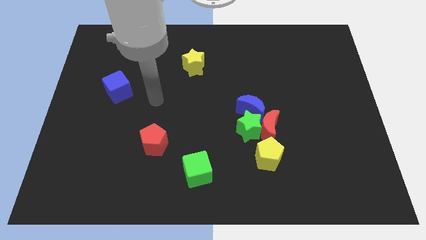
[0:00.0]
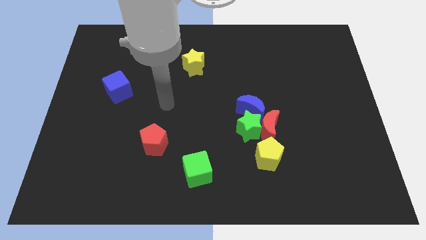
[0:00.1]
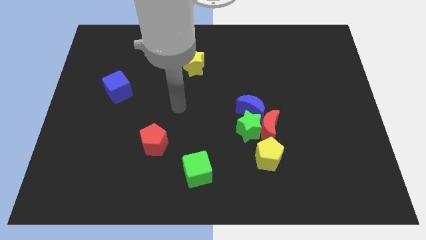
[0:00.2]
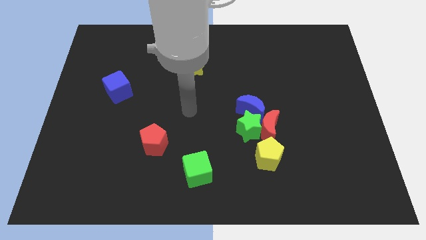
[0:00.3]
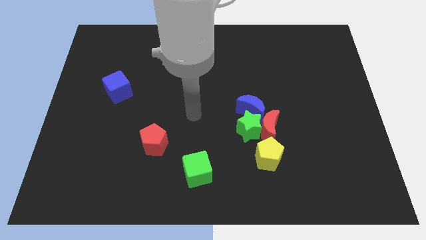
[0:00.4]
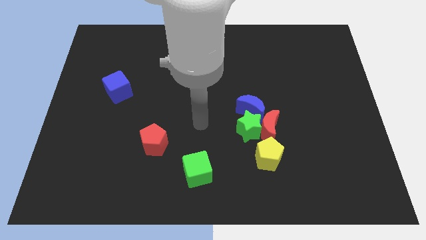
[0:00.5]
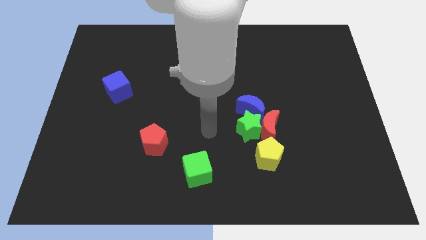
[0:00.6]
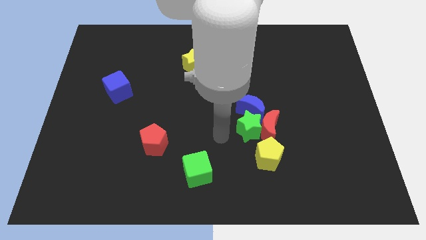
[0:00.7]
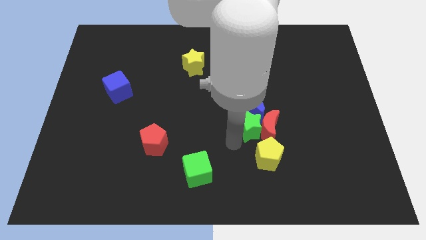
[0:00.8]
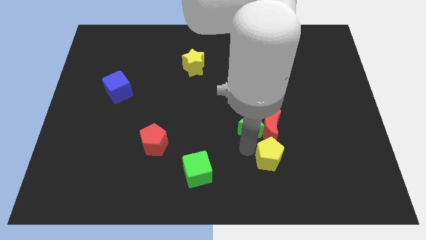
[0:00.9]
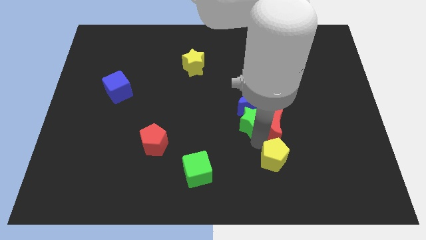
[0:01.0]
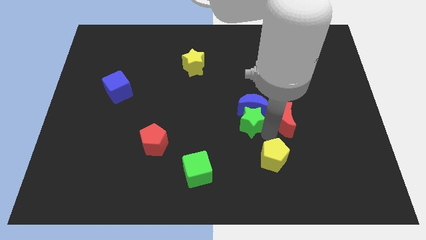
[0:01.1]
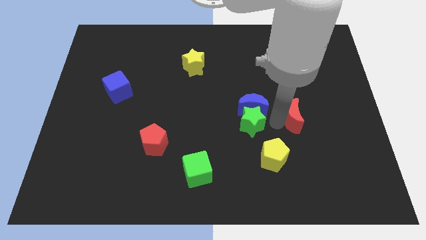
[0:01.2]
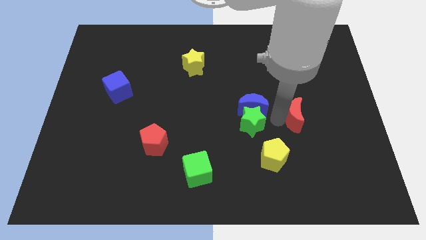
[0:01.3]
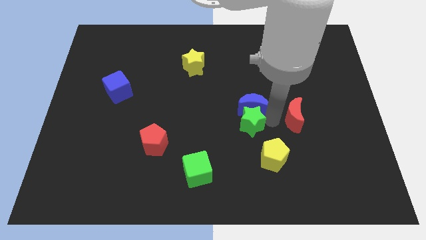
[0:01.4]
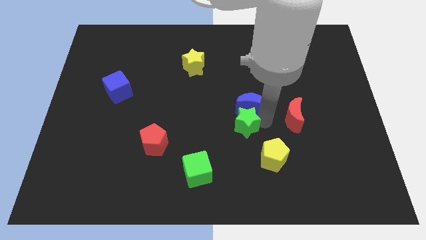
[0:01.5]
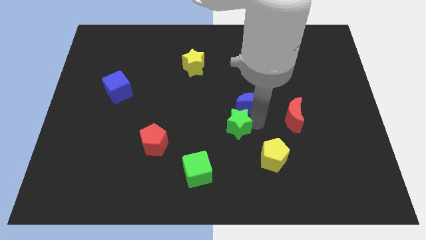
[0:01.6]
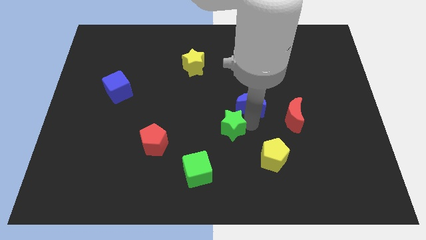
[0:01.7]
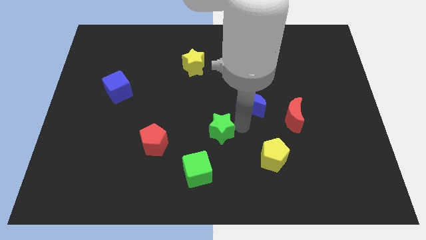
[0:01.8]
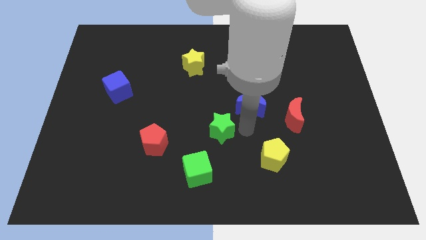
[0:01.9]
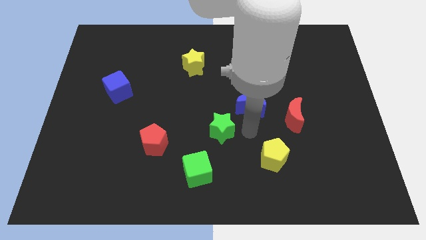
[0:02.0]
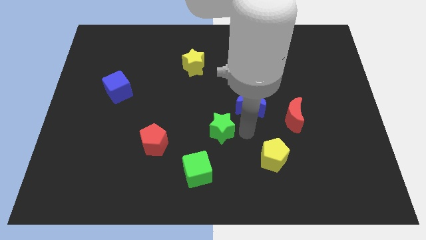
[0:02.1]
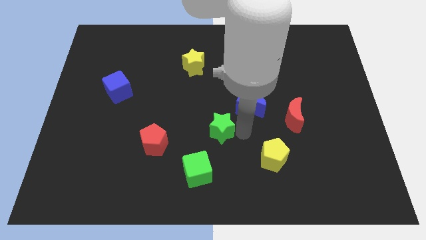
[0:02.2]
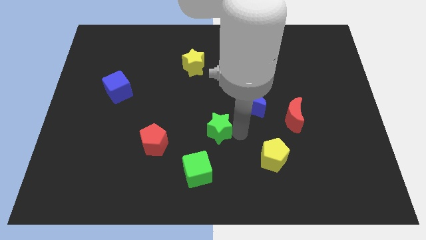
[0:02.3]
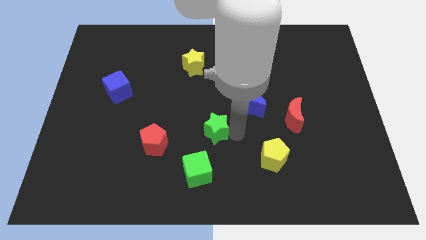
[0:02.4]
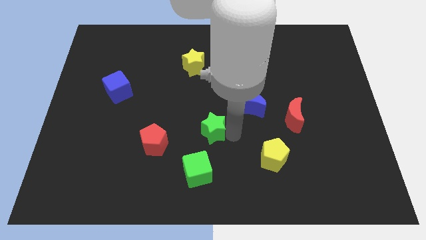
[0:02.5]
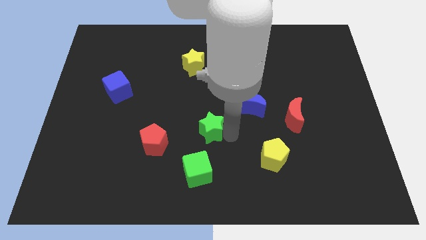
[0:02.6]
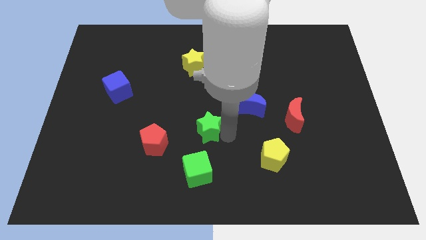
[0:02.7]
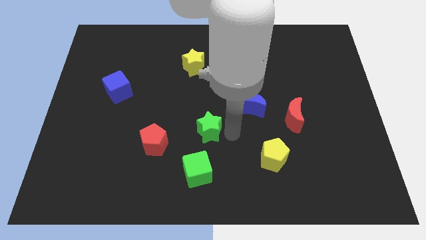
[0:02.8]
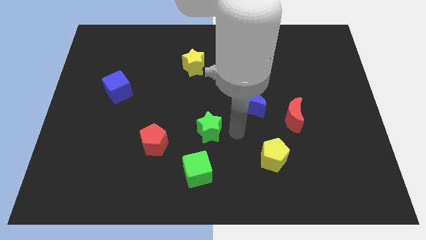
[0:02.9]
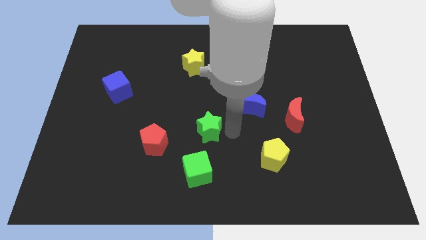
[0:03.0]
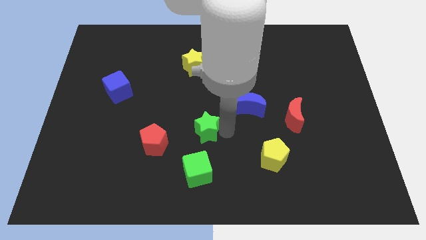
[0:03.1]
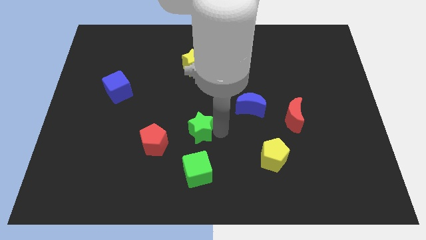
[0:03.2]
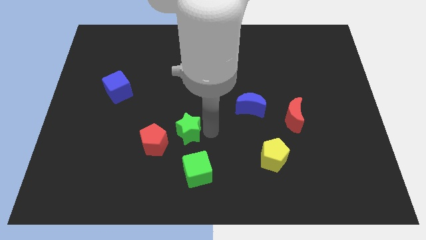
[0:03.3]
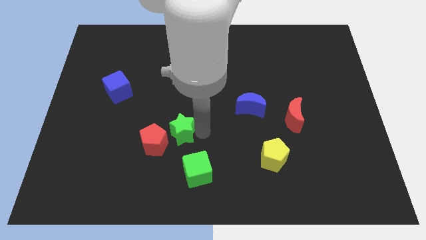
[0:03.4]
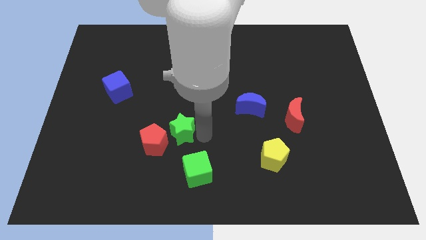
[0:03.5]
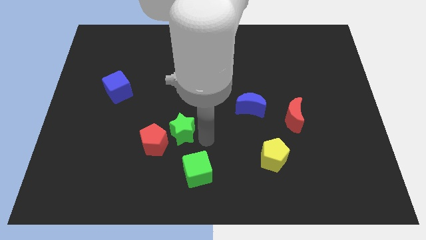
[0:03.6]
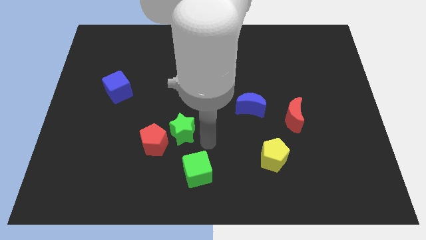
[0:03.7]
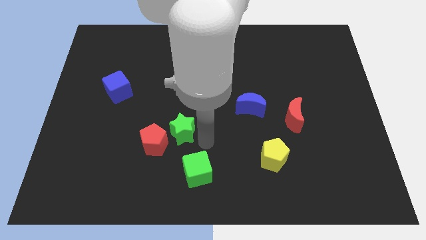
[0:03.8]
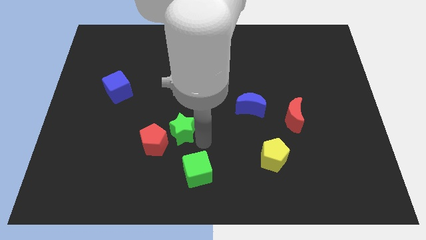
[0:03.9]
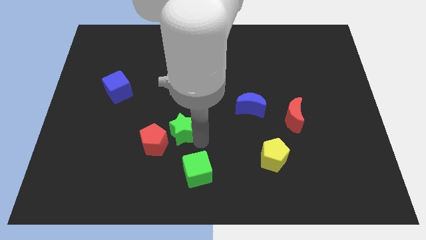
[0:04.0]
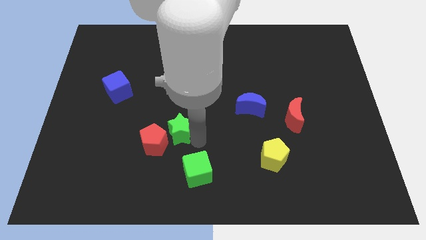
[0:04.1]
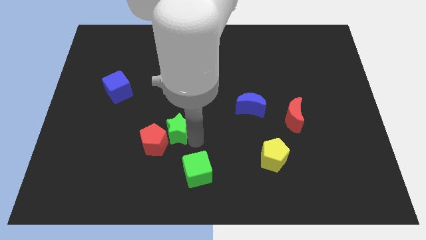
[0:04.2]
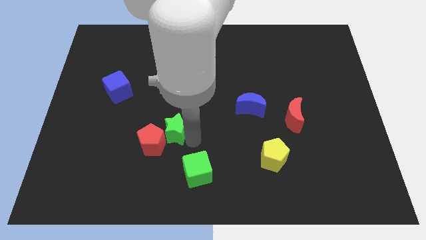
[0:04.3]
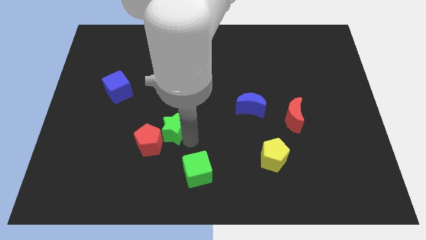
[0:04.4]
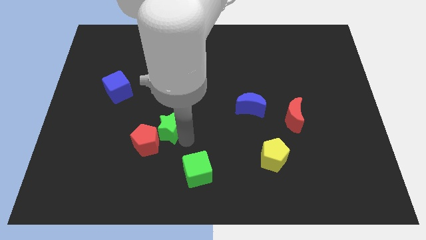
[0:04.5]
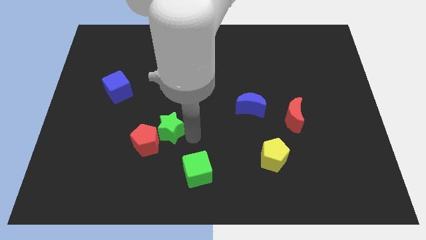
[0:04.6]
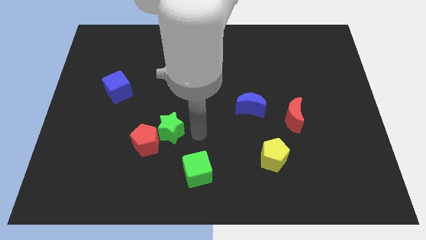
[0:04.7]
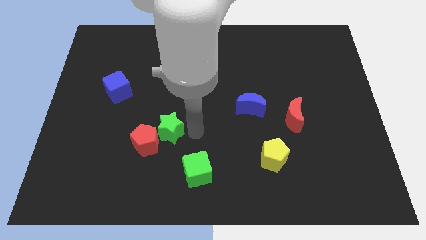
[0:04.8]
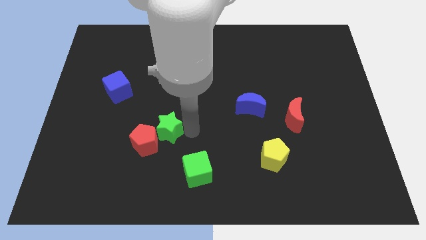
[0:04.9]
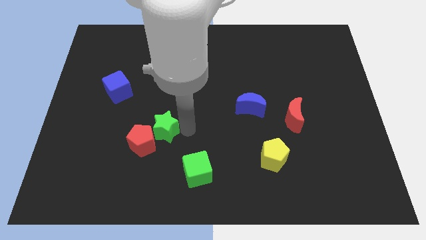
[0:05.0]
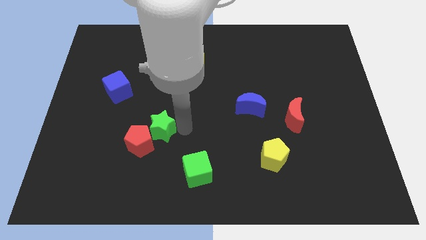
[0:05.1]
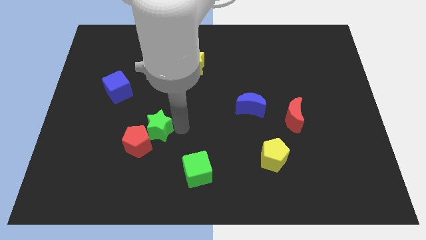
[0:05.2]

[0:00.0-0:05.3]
slide the green star to the left

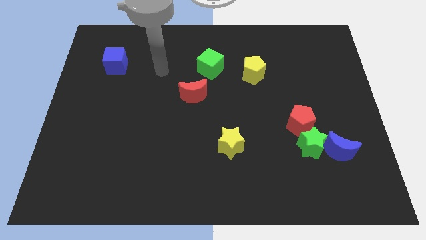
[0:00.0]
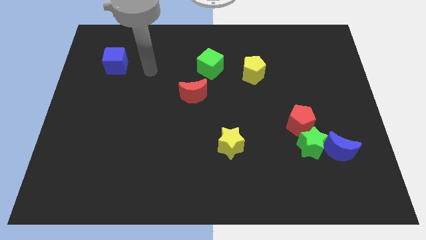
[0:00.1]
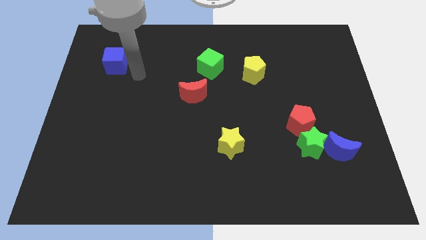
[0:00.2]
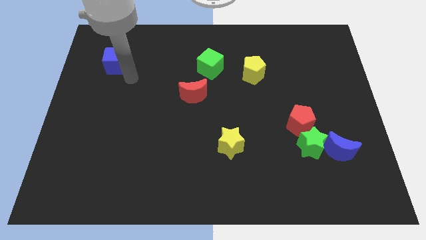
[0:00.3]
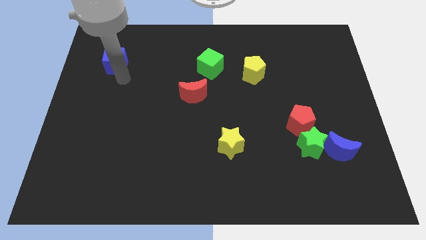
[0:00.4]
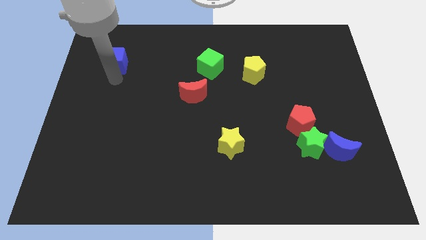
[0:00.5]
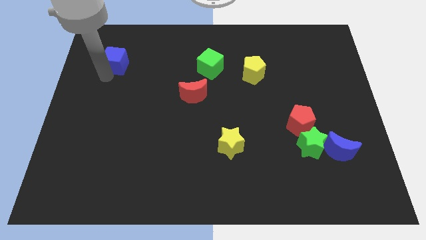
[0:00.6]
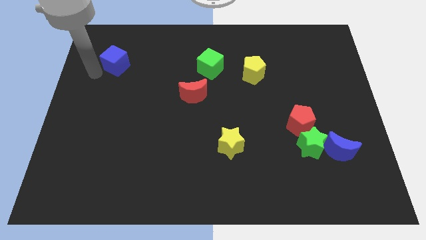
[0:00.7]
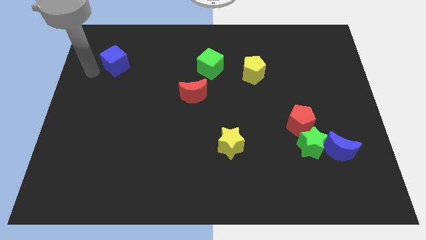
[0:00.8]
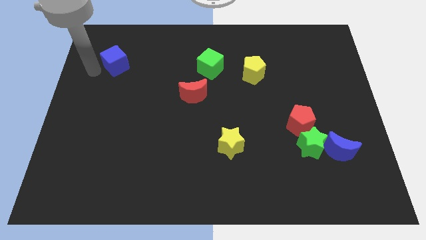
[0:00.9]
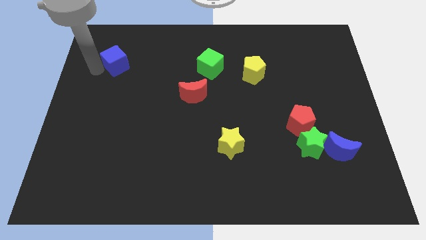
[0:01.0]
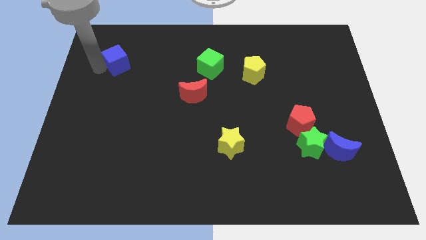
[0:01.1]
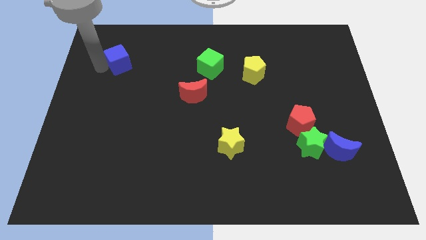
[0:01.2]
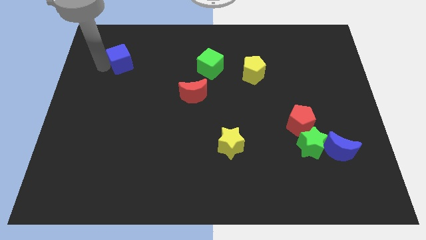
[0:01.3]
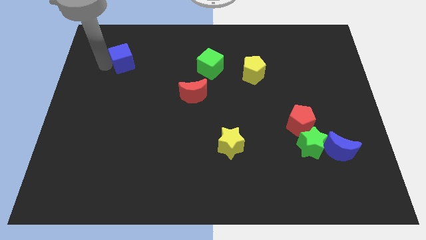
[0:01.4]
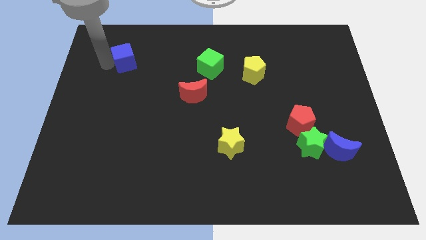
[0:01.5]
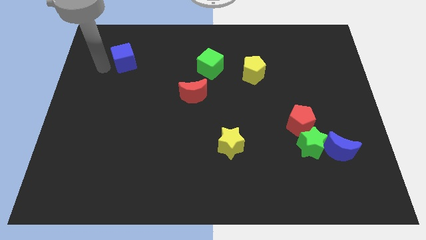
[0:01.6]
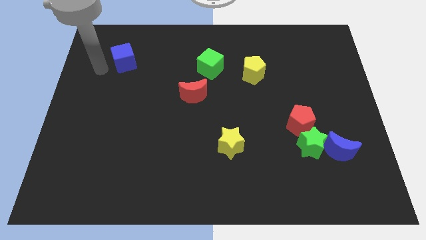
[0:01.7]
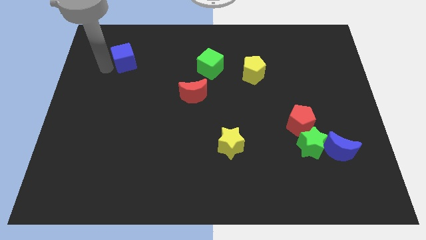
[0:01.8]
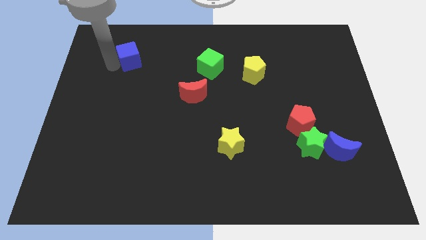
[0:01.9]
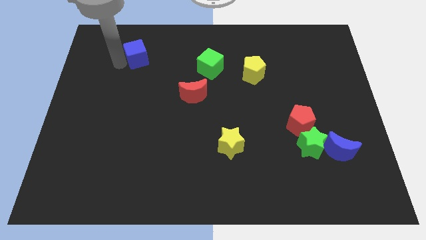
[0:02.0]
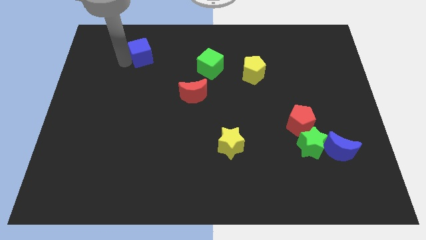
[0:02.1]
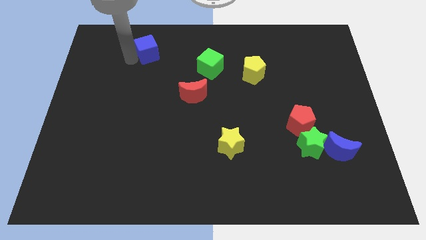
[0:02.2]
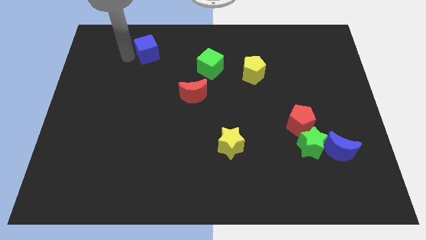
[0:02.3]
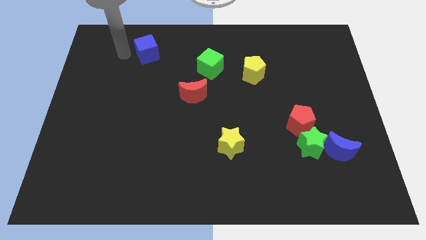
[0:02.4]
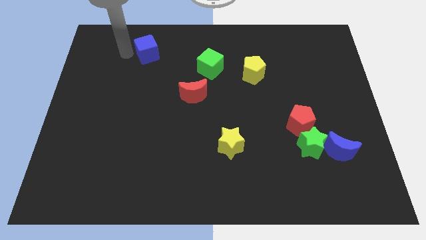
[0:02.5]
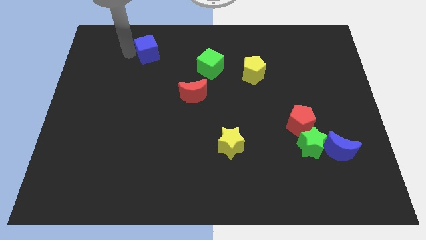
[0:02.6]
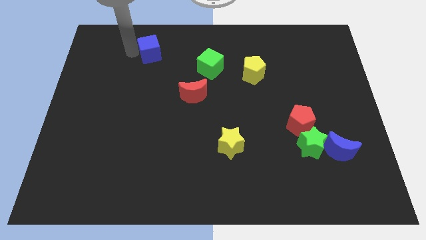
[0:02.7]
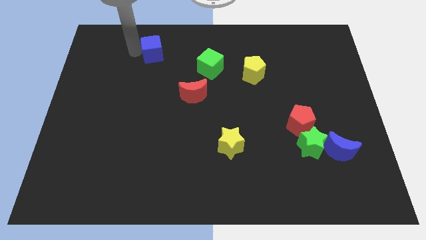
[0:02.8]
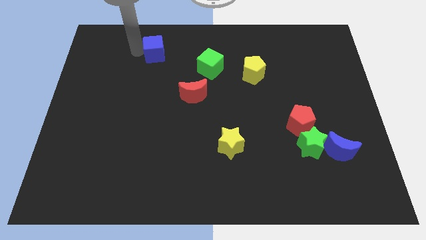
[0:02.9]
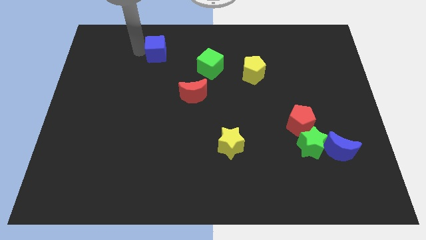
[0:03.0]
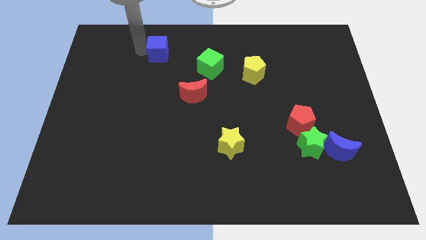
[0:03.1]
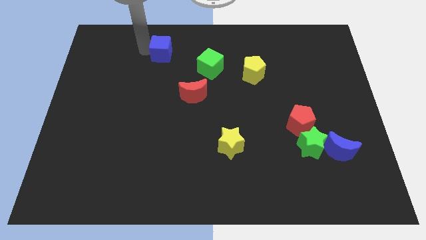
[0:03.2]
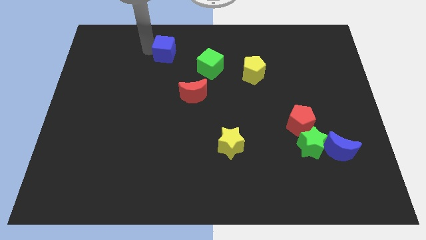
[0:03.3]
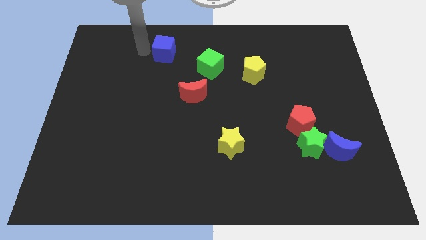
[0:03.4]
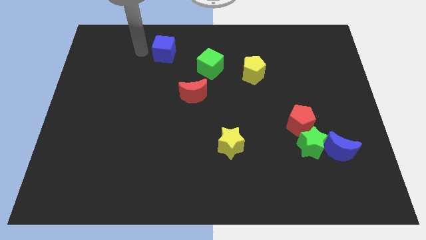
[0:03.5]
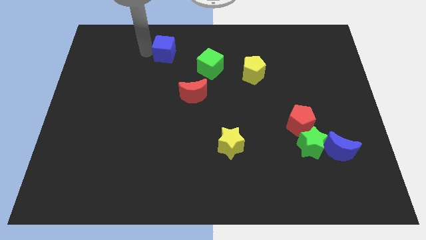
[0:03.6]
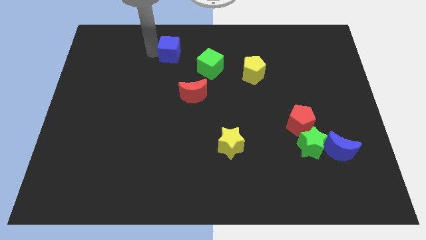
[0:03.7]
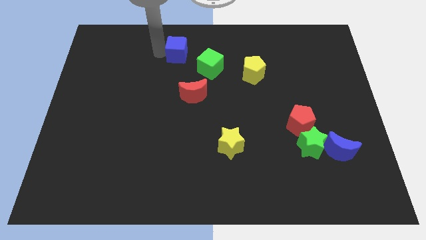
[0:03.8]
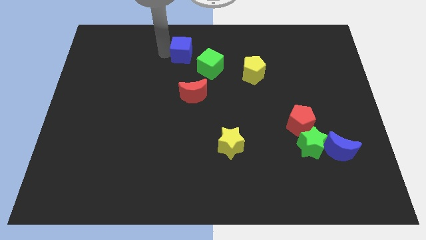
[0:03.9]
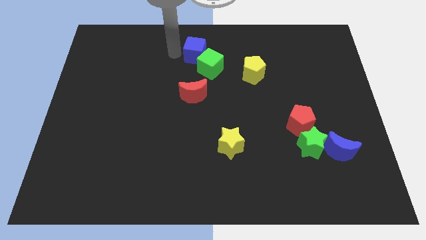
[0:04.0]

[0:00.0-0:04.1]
slide the blue cube to the right
